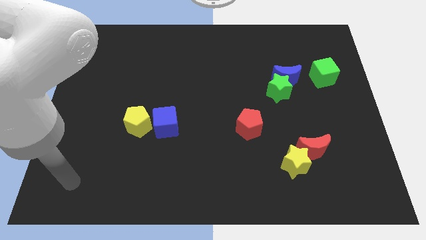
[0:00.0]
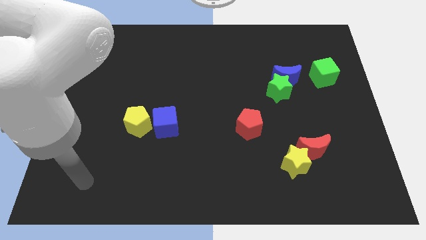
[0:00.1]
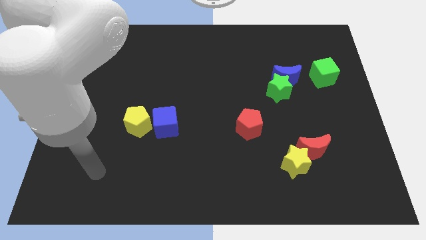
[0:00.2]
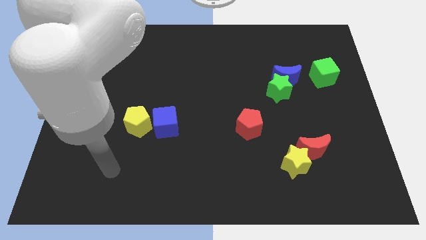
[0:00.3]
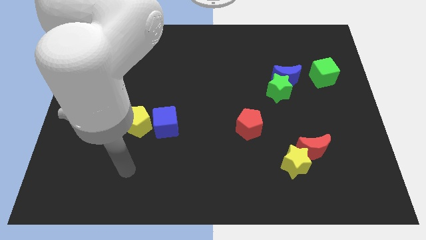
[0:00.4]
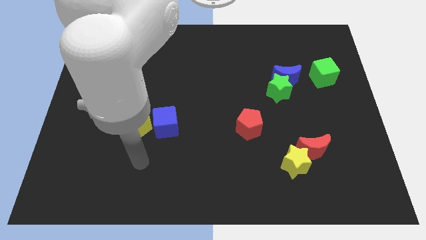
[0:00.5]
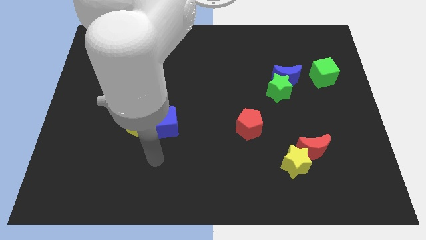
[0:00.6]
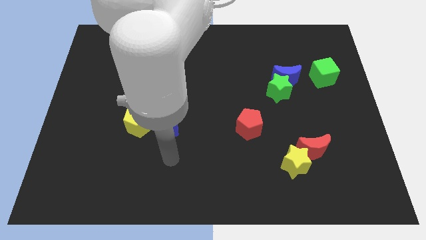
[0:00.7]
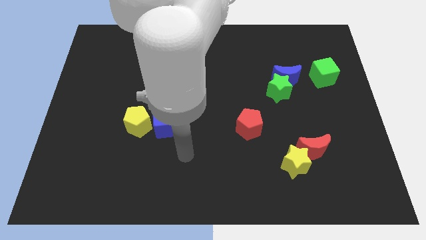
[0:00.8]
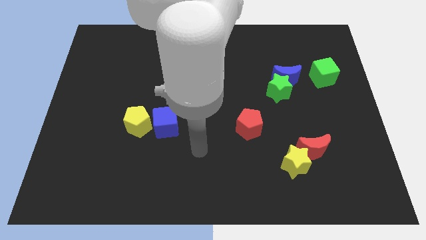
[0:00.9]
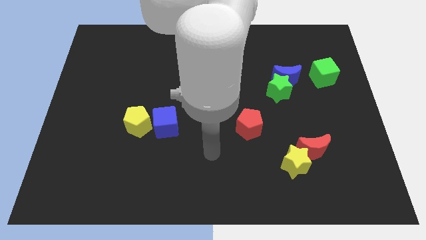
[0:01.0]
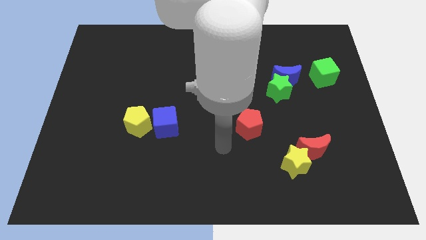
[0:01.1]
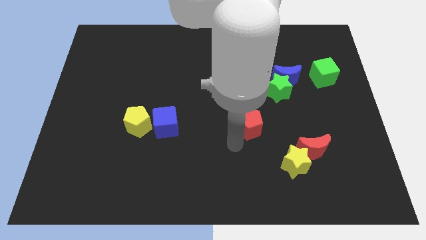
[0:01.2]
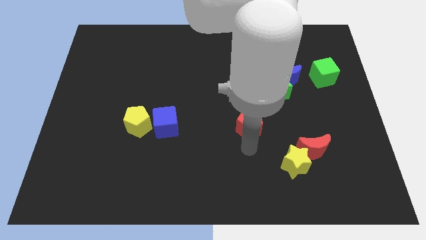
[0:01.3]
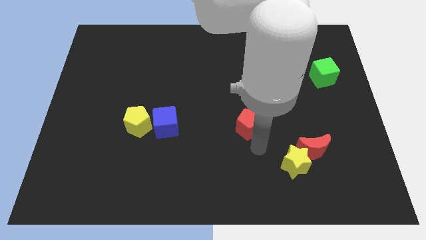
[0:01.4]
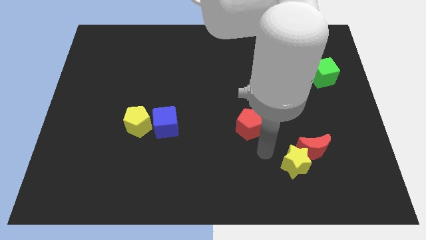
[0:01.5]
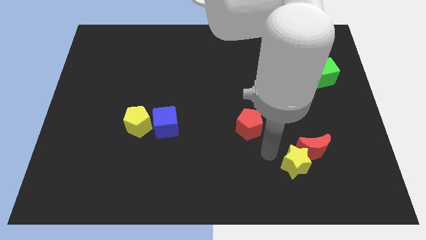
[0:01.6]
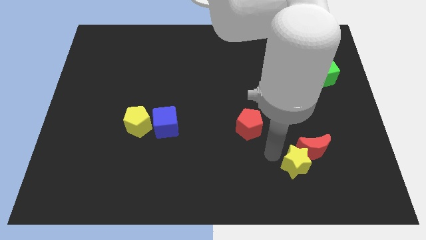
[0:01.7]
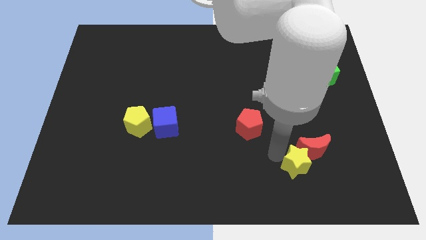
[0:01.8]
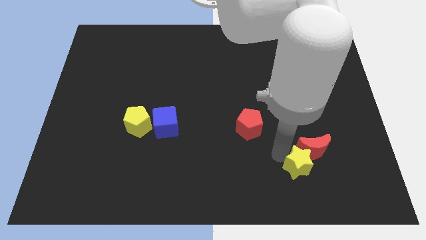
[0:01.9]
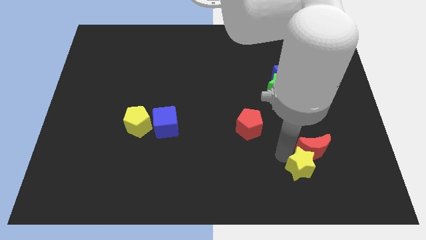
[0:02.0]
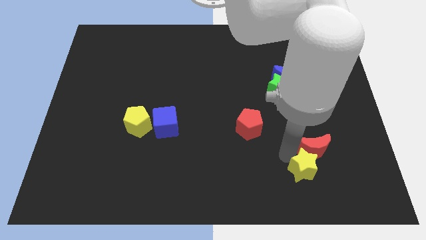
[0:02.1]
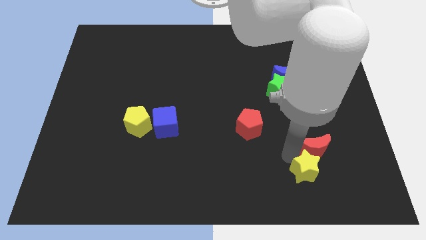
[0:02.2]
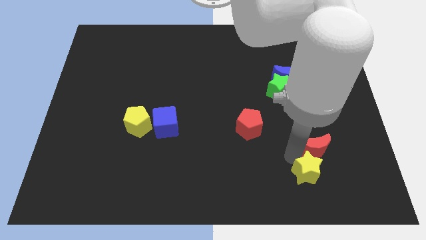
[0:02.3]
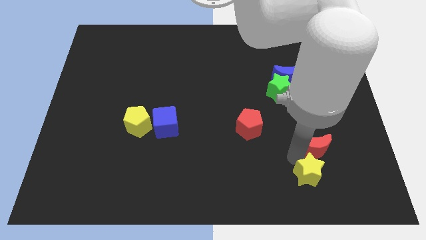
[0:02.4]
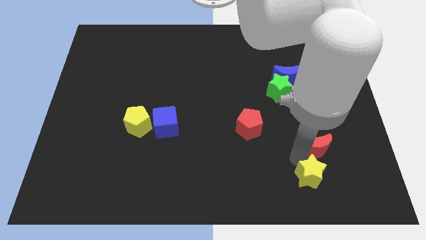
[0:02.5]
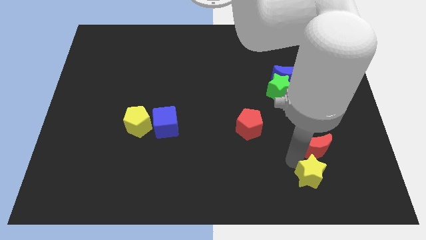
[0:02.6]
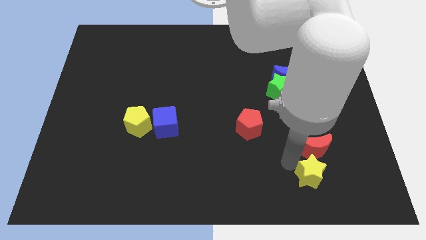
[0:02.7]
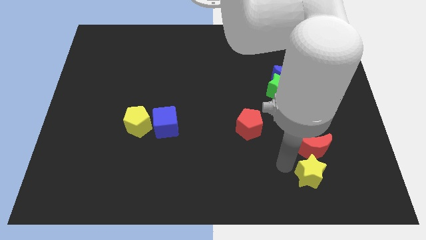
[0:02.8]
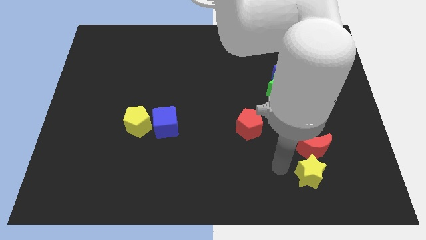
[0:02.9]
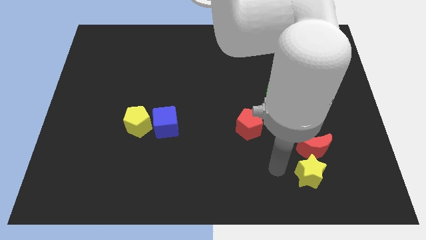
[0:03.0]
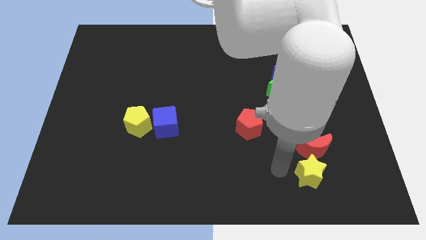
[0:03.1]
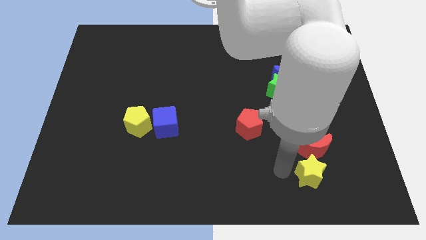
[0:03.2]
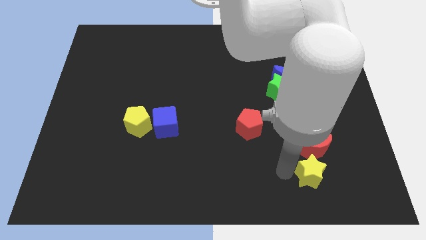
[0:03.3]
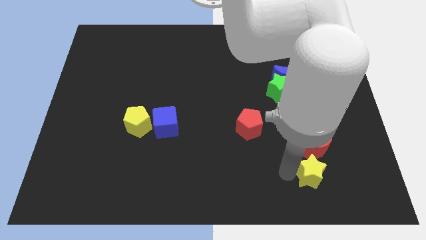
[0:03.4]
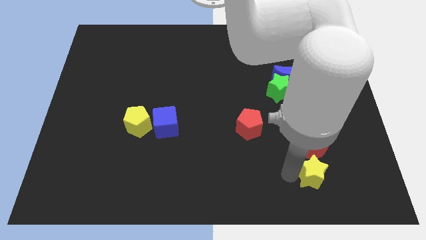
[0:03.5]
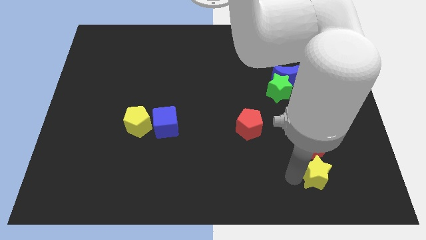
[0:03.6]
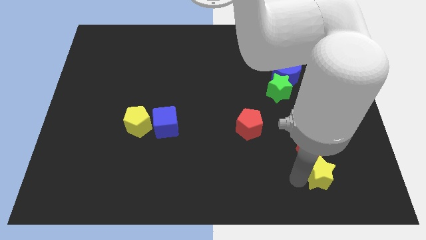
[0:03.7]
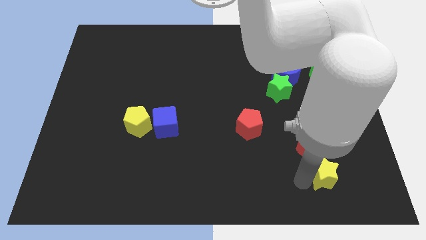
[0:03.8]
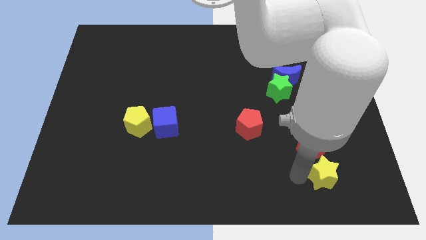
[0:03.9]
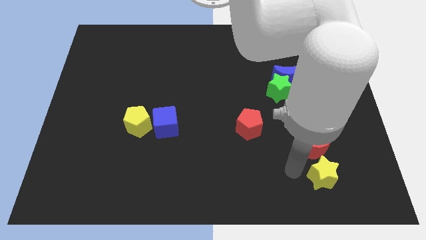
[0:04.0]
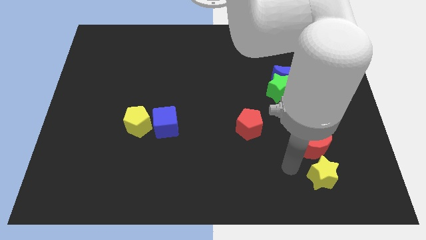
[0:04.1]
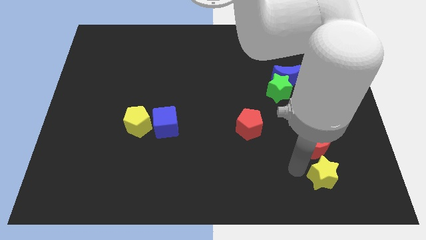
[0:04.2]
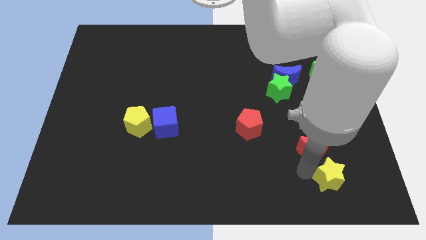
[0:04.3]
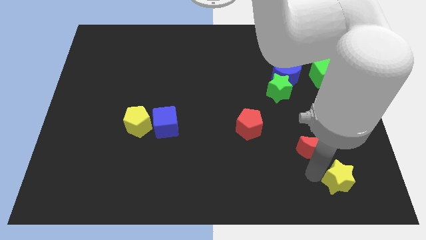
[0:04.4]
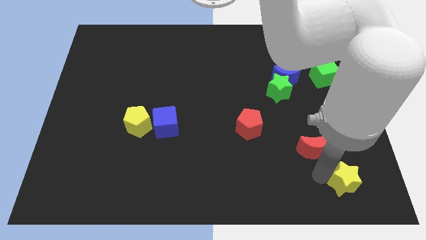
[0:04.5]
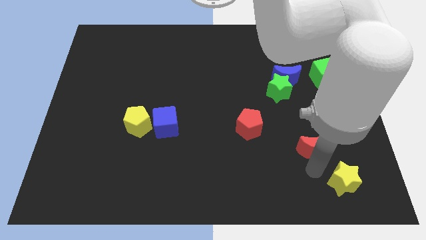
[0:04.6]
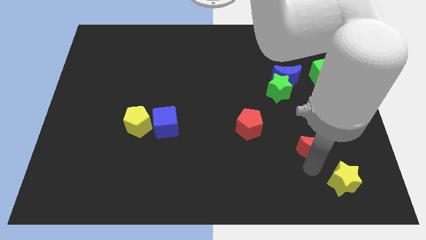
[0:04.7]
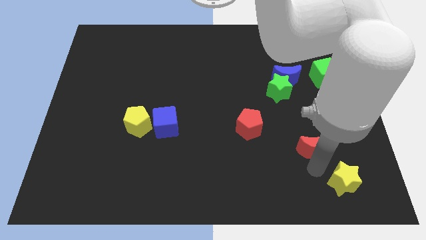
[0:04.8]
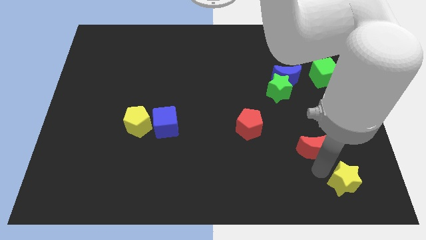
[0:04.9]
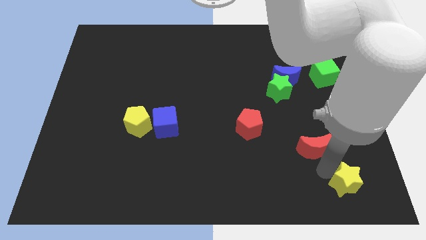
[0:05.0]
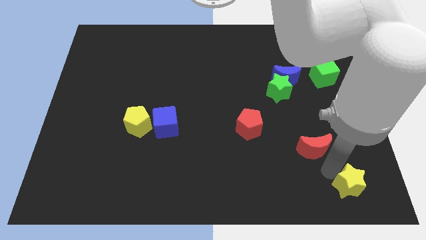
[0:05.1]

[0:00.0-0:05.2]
put the yellow star to the lower right corner

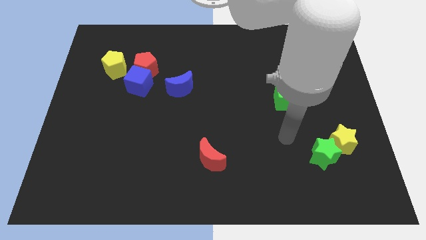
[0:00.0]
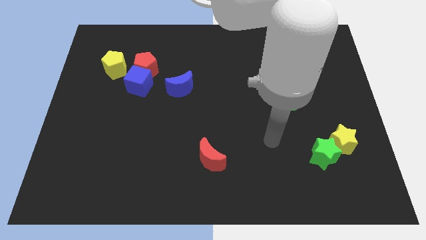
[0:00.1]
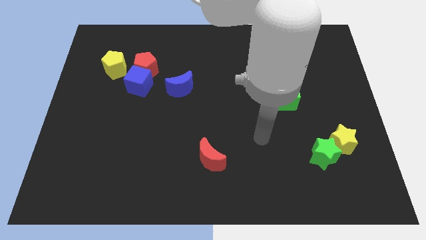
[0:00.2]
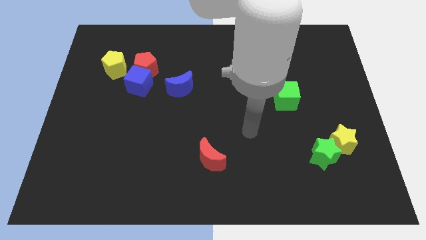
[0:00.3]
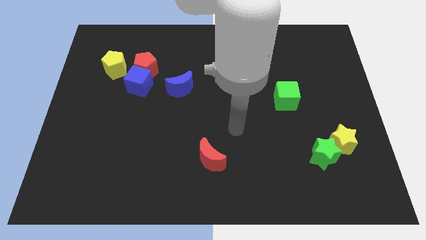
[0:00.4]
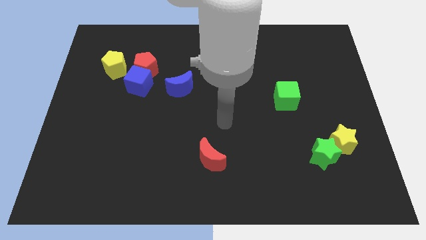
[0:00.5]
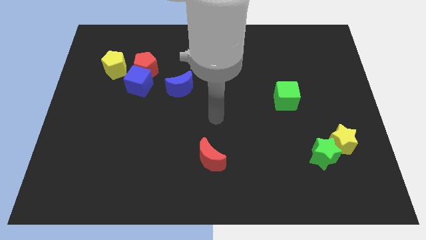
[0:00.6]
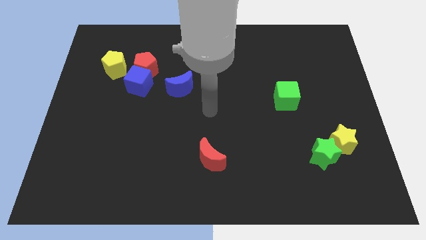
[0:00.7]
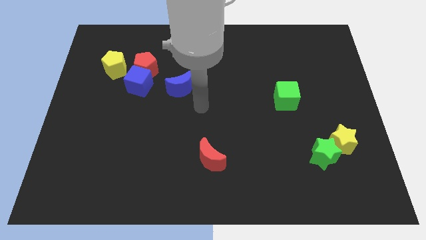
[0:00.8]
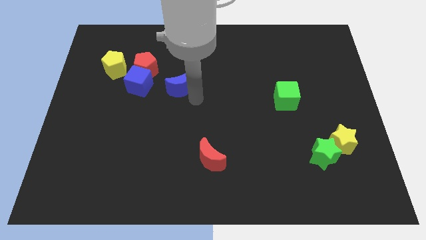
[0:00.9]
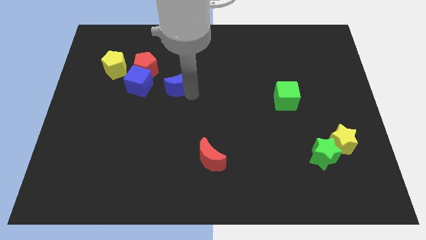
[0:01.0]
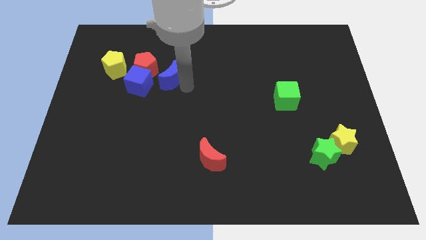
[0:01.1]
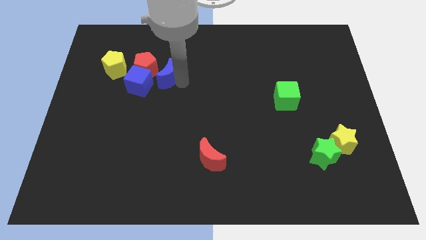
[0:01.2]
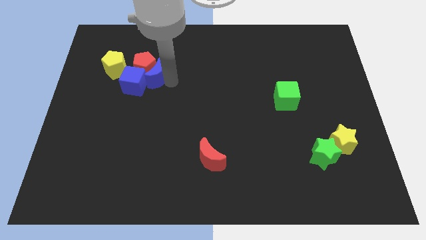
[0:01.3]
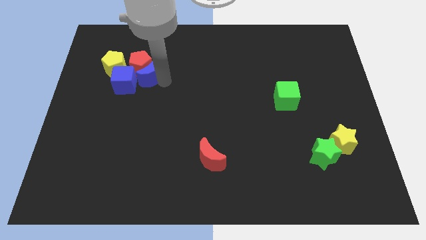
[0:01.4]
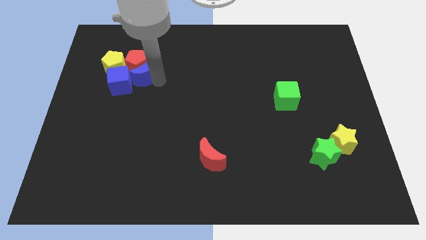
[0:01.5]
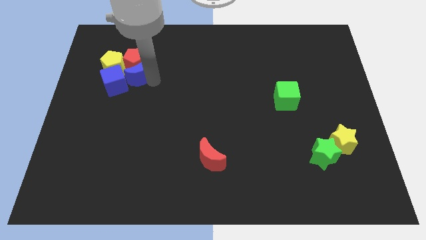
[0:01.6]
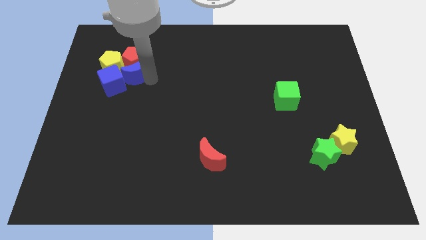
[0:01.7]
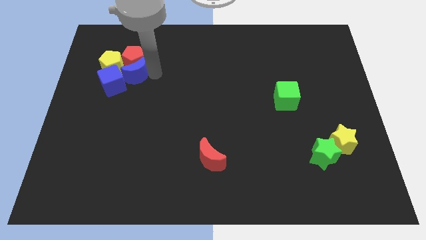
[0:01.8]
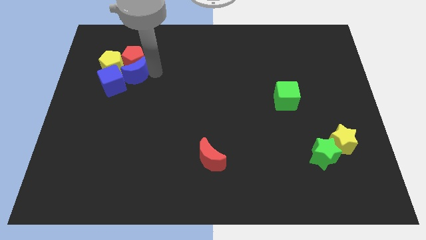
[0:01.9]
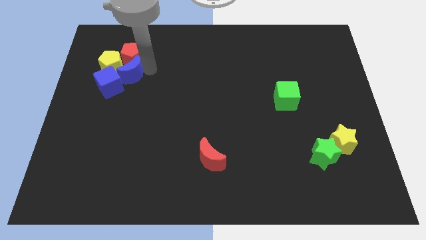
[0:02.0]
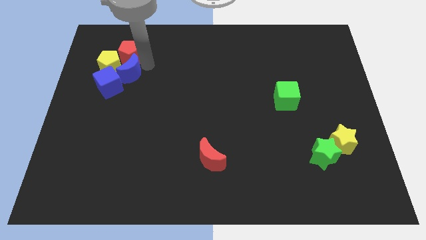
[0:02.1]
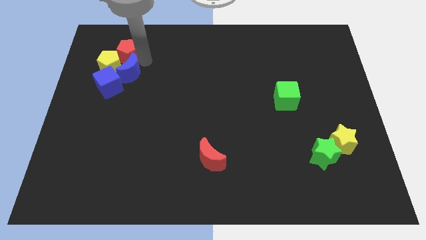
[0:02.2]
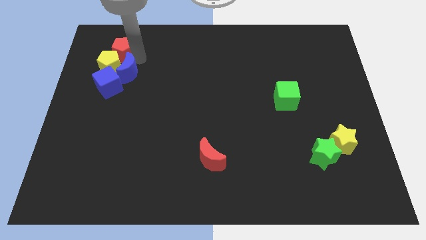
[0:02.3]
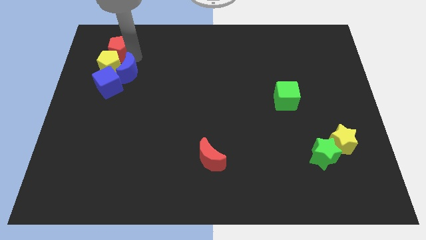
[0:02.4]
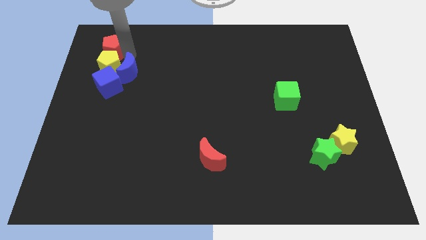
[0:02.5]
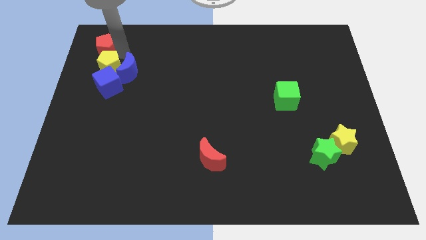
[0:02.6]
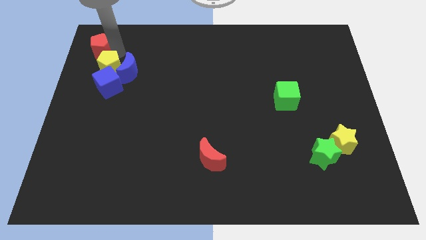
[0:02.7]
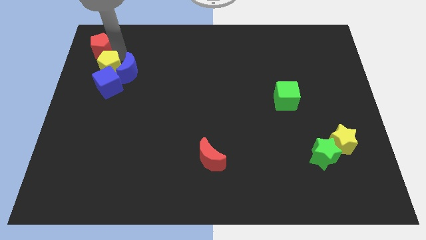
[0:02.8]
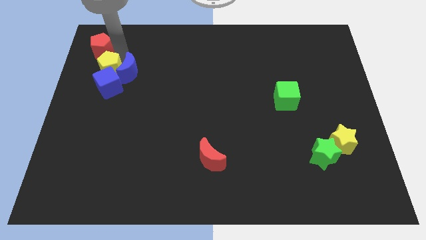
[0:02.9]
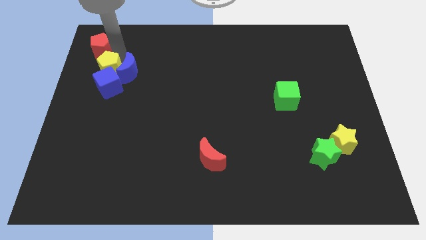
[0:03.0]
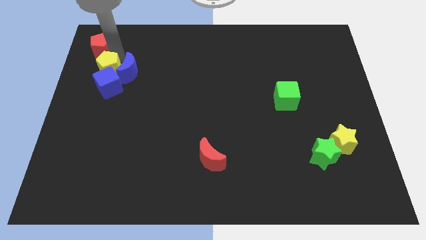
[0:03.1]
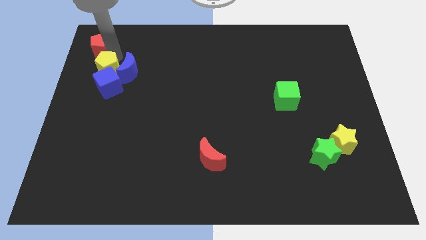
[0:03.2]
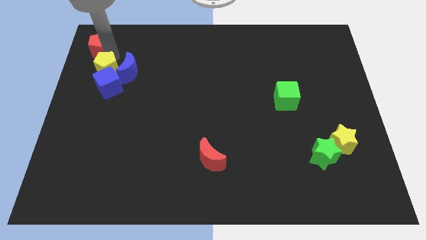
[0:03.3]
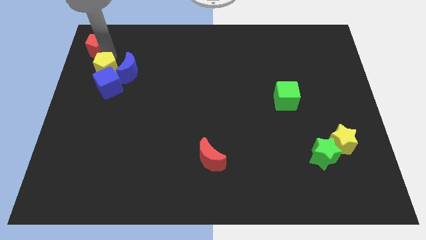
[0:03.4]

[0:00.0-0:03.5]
move the red pentagon to the upper left corner
